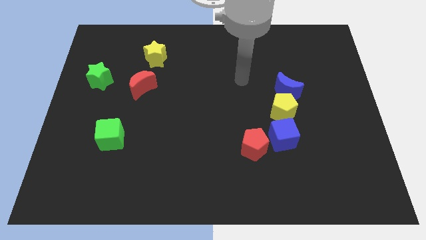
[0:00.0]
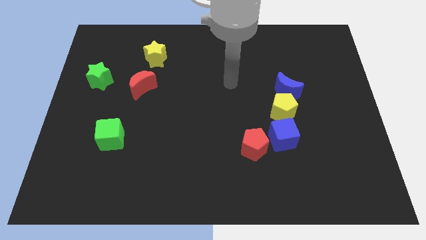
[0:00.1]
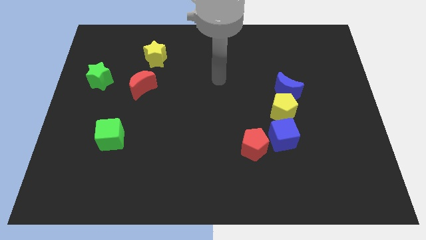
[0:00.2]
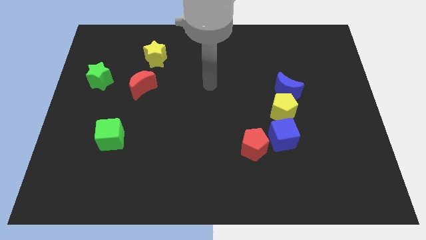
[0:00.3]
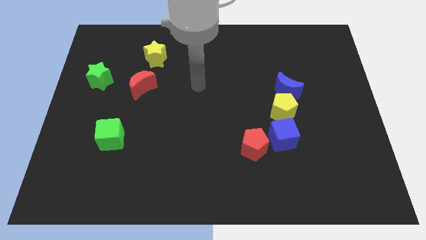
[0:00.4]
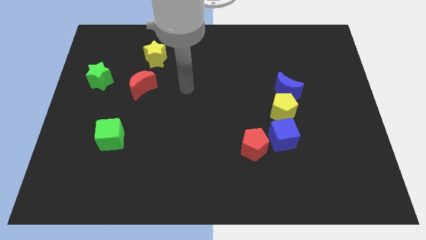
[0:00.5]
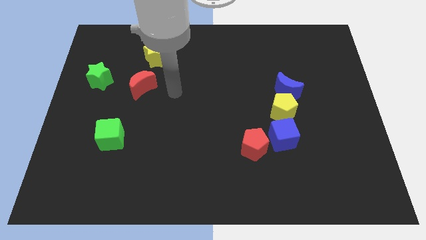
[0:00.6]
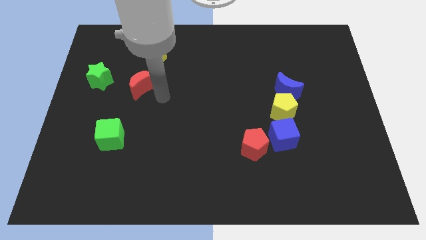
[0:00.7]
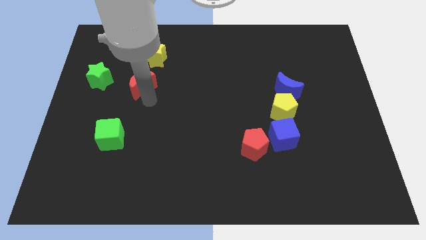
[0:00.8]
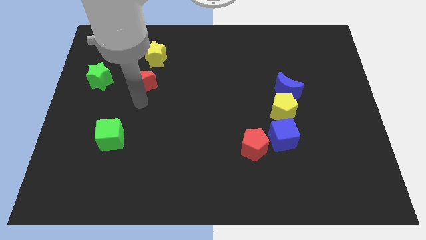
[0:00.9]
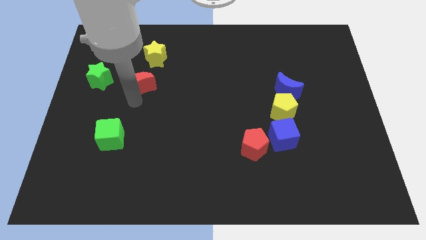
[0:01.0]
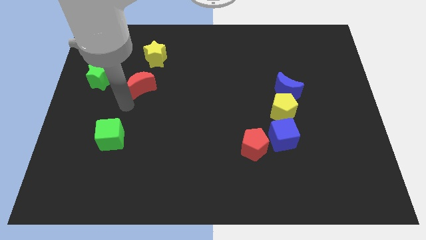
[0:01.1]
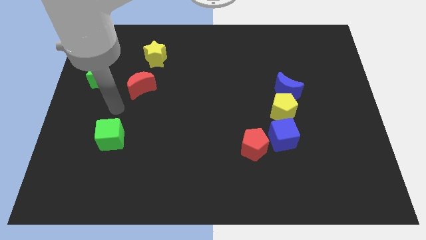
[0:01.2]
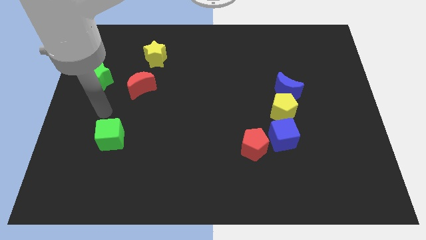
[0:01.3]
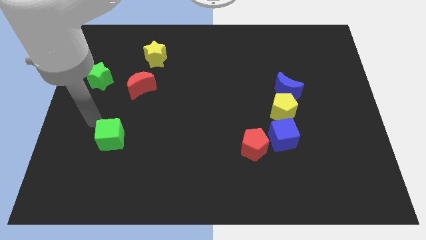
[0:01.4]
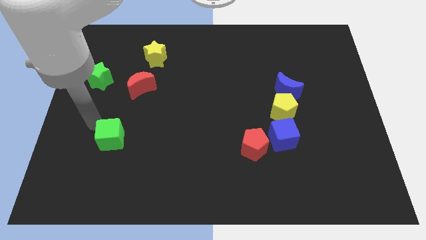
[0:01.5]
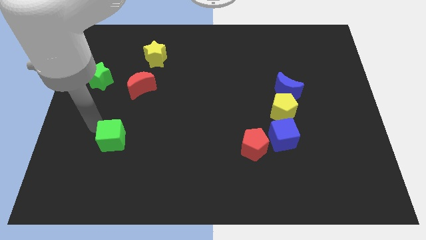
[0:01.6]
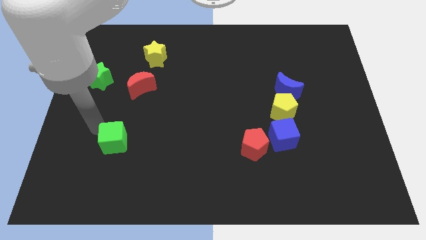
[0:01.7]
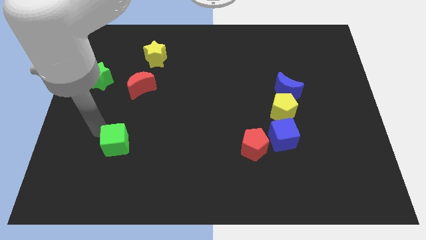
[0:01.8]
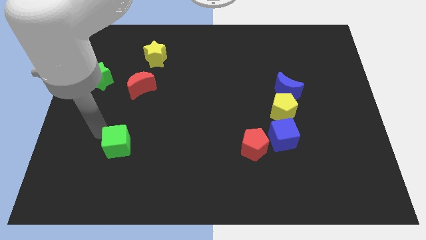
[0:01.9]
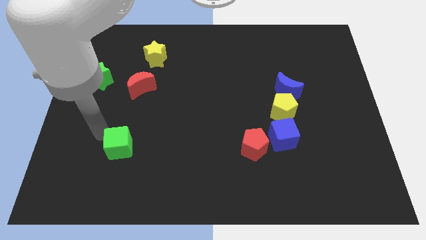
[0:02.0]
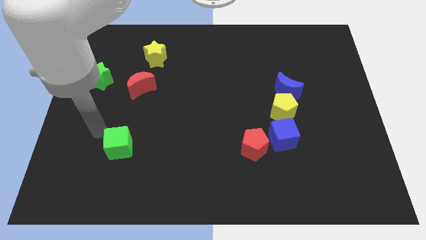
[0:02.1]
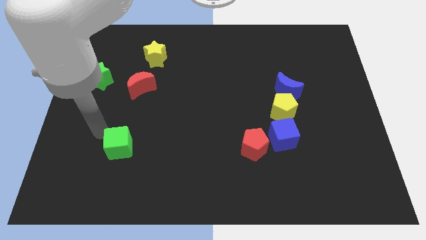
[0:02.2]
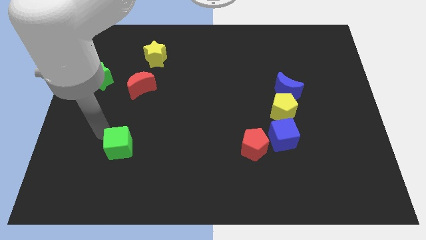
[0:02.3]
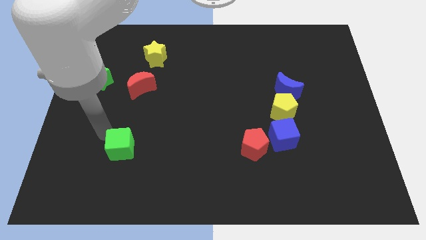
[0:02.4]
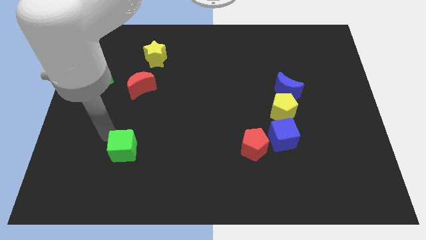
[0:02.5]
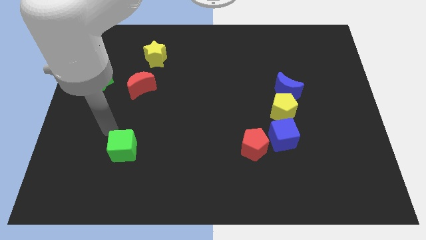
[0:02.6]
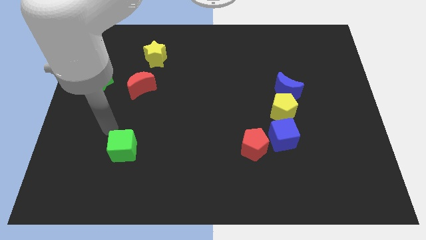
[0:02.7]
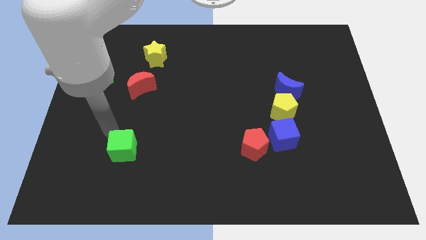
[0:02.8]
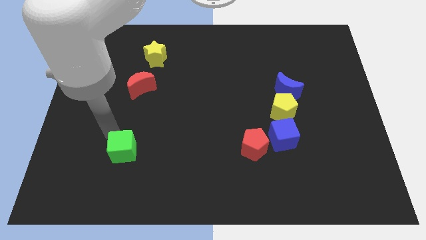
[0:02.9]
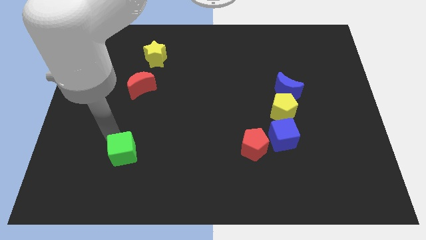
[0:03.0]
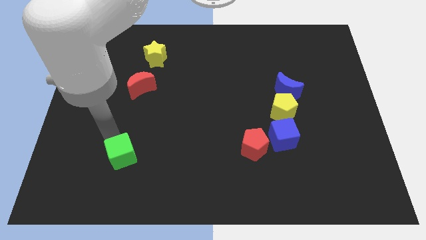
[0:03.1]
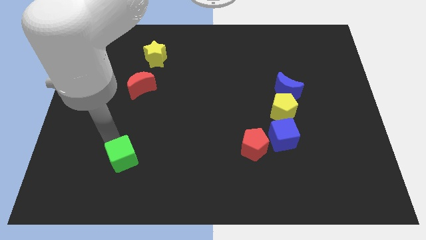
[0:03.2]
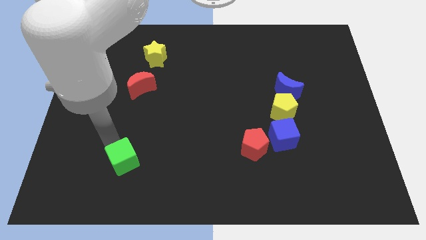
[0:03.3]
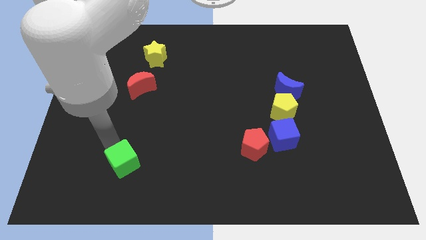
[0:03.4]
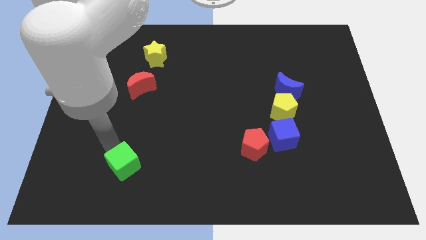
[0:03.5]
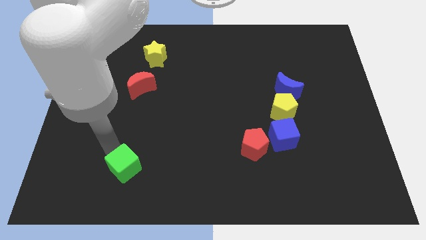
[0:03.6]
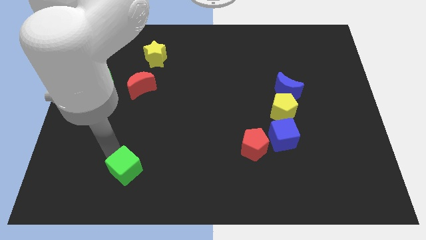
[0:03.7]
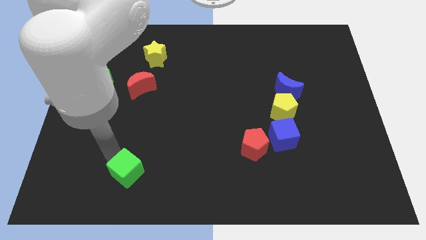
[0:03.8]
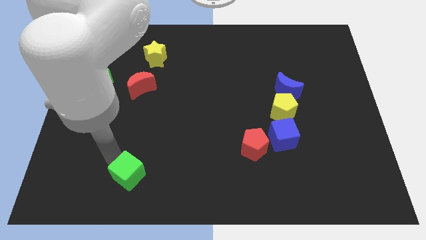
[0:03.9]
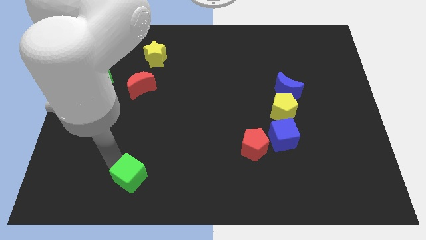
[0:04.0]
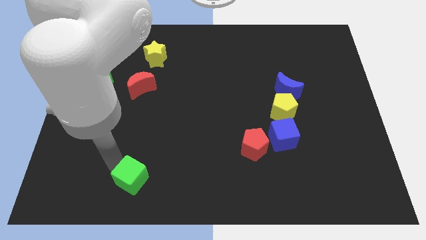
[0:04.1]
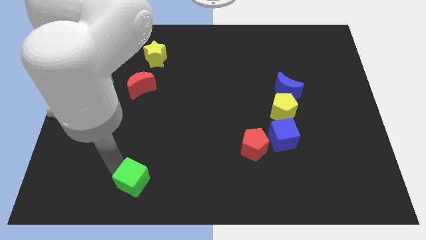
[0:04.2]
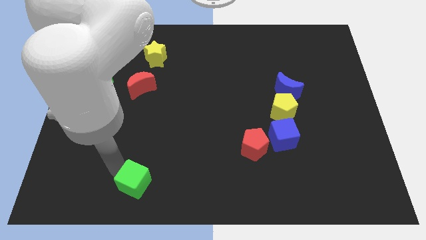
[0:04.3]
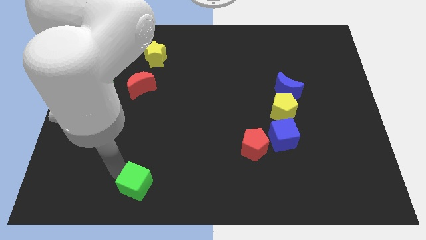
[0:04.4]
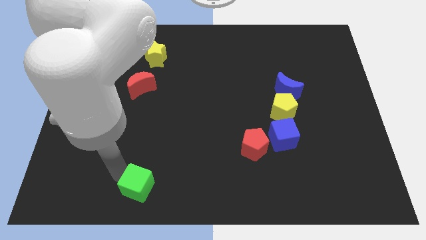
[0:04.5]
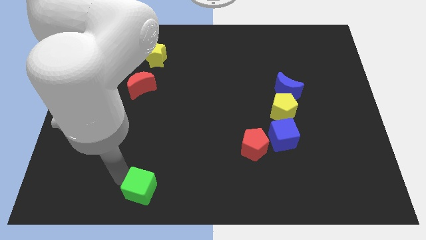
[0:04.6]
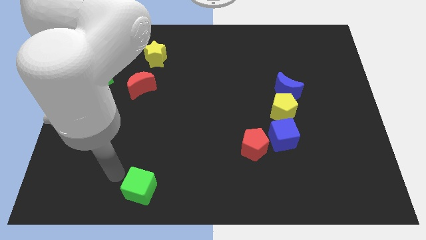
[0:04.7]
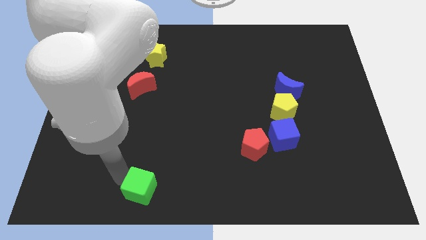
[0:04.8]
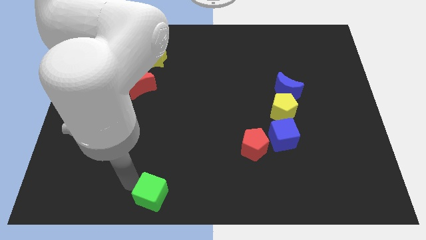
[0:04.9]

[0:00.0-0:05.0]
slide the green cube to the bottom side

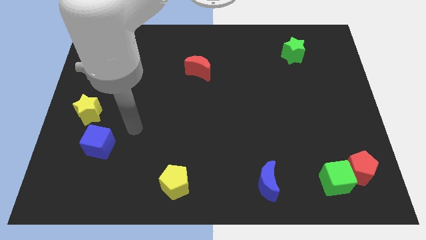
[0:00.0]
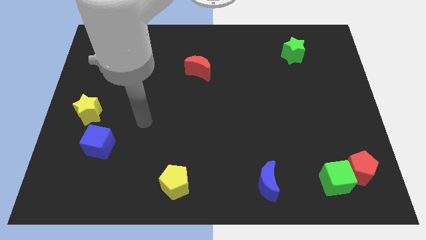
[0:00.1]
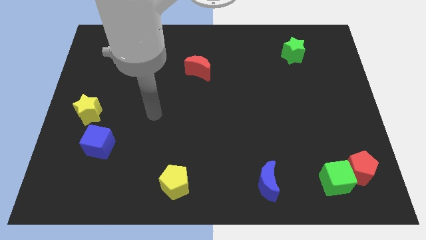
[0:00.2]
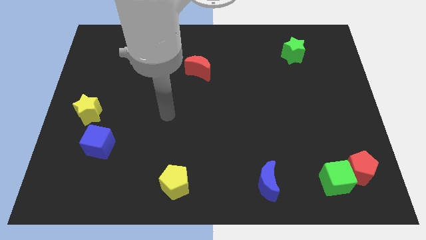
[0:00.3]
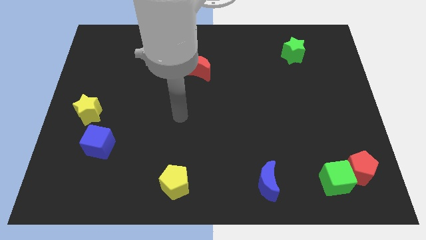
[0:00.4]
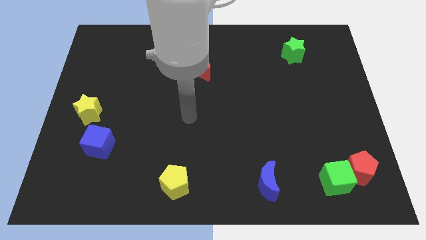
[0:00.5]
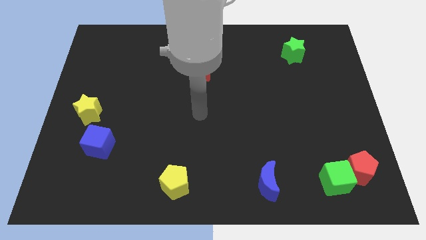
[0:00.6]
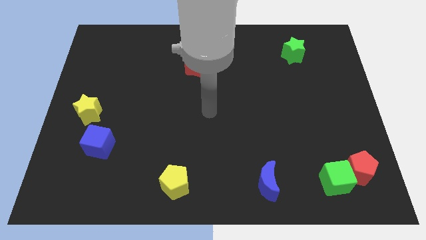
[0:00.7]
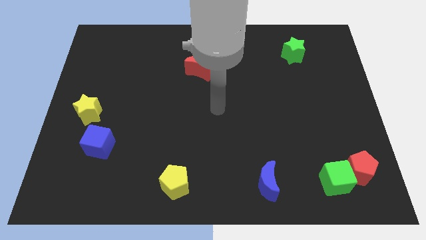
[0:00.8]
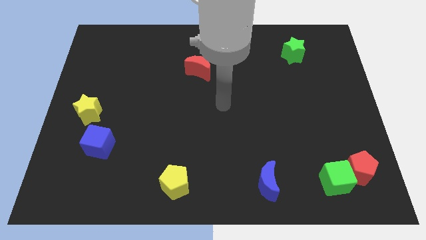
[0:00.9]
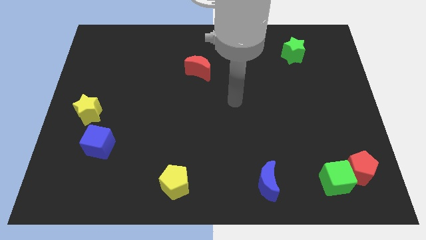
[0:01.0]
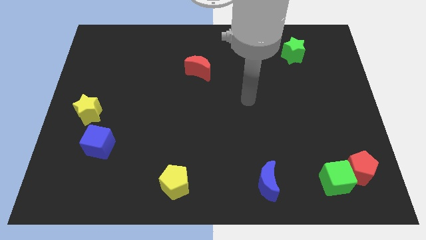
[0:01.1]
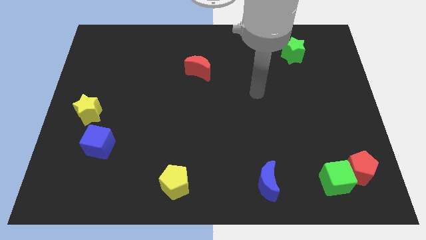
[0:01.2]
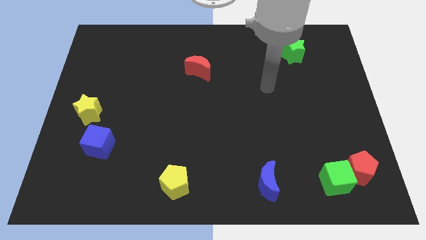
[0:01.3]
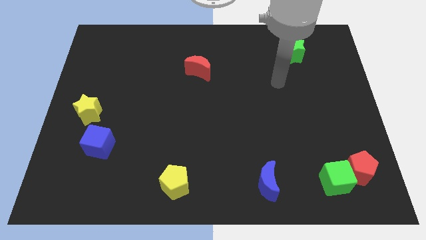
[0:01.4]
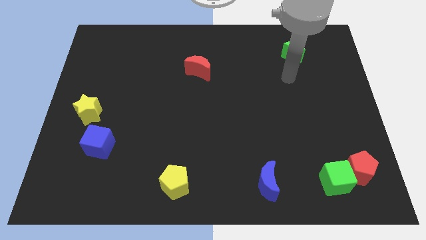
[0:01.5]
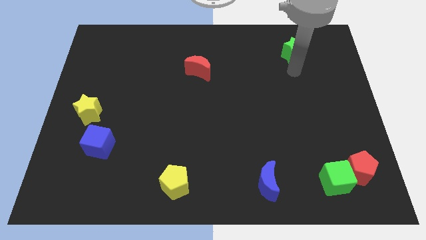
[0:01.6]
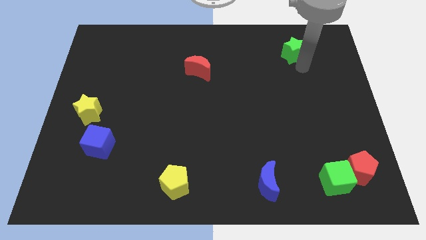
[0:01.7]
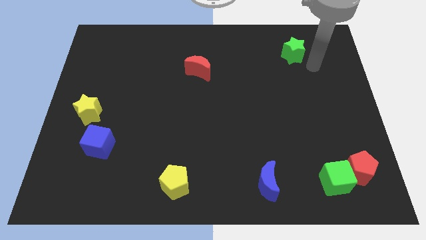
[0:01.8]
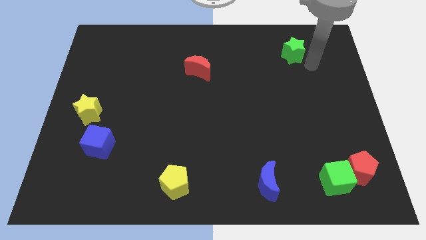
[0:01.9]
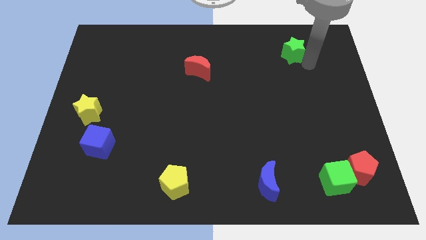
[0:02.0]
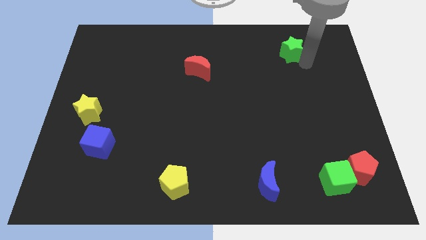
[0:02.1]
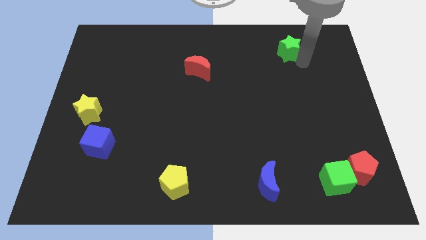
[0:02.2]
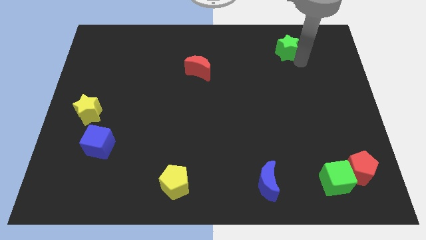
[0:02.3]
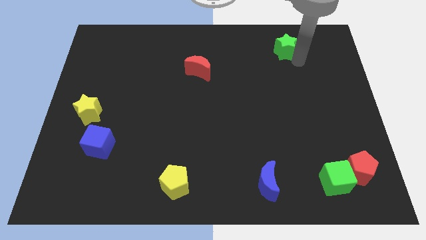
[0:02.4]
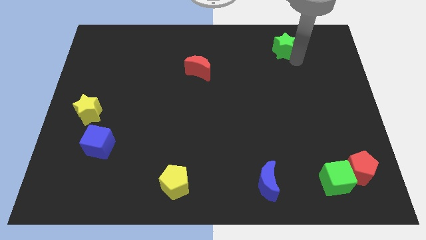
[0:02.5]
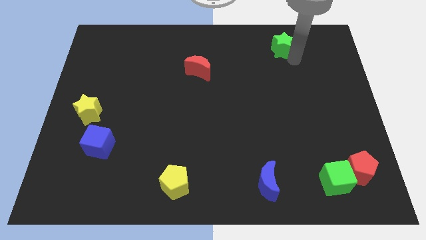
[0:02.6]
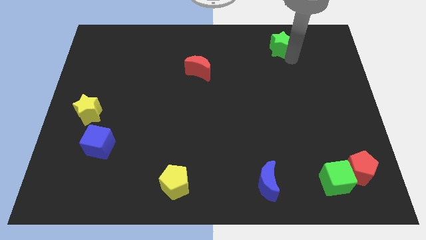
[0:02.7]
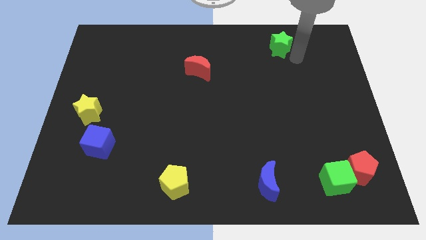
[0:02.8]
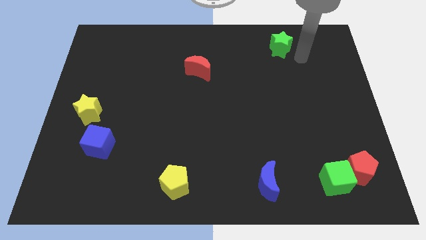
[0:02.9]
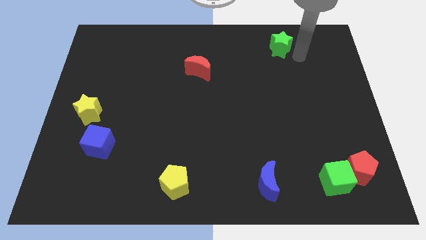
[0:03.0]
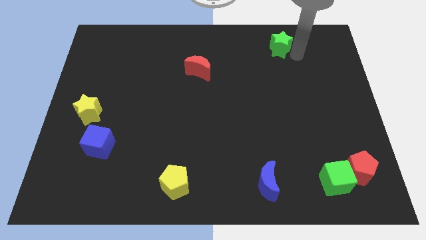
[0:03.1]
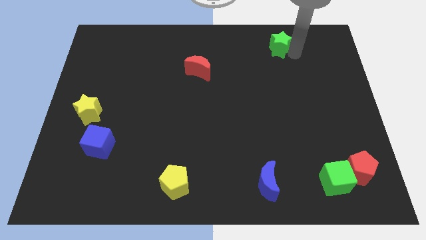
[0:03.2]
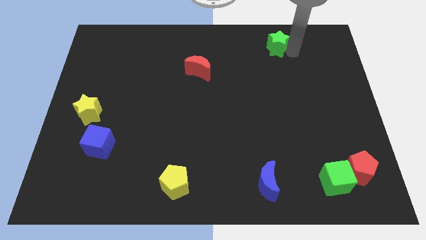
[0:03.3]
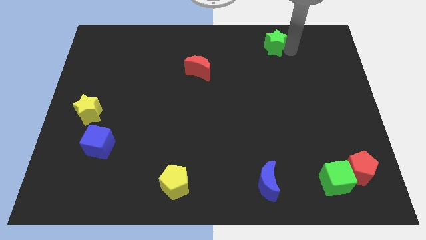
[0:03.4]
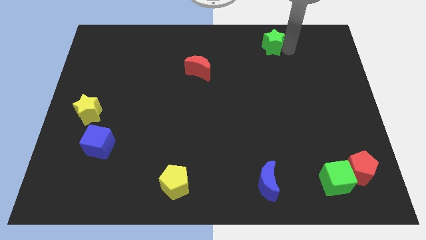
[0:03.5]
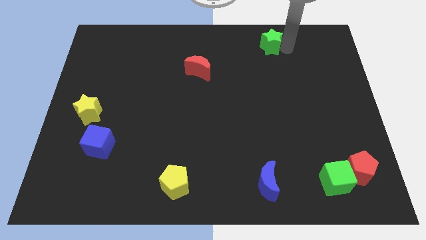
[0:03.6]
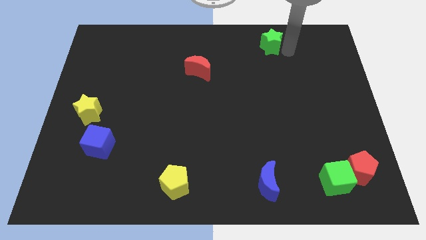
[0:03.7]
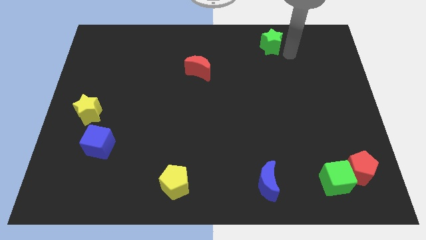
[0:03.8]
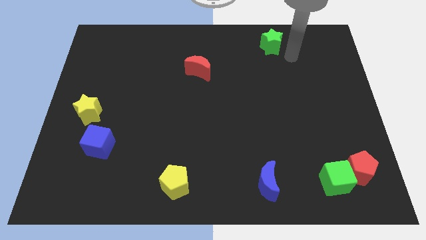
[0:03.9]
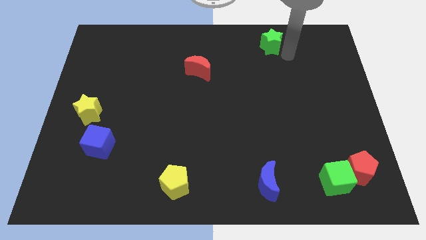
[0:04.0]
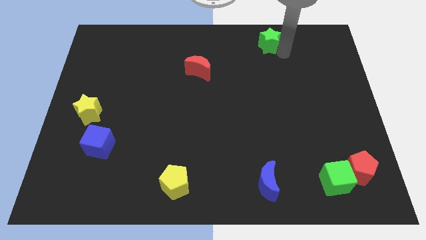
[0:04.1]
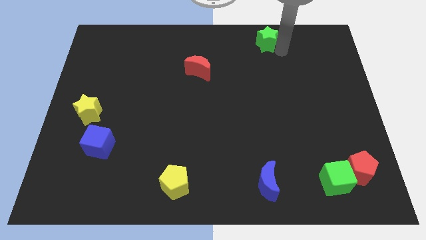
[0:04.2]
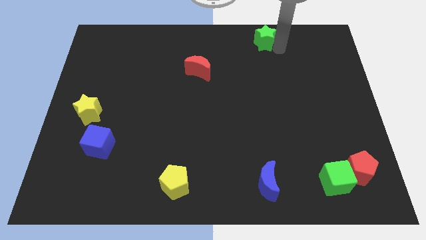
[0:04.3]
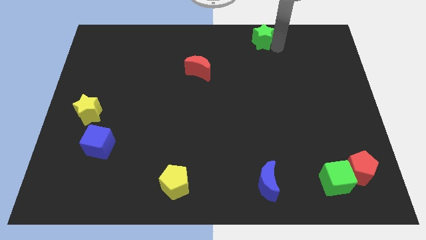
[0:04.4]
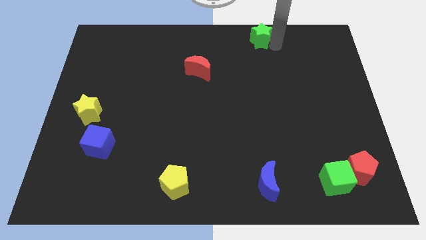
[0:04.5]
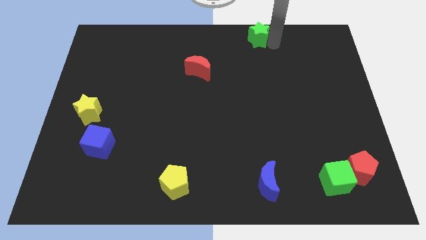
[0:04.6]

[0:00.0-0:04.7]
move the green star to the top
